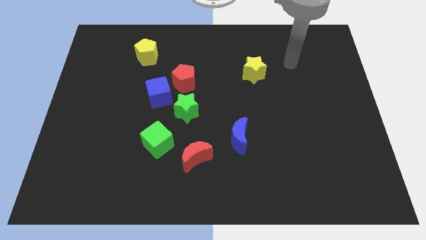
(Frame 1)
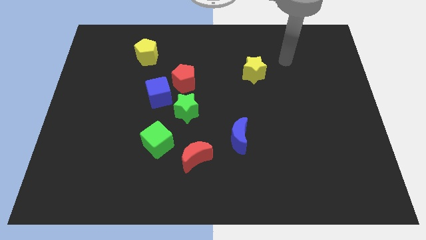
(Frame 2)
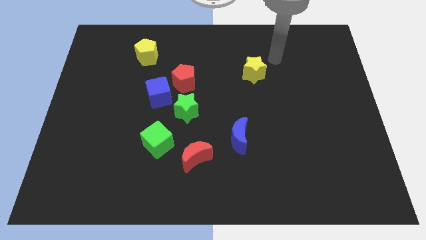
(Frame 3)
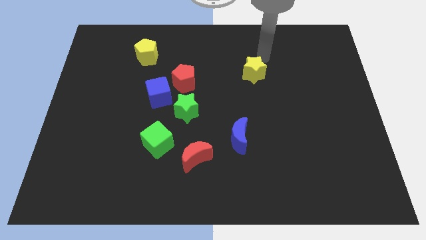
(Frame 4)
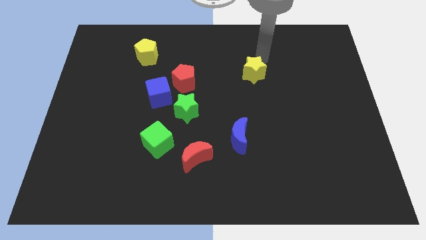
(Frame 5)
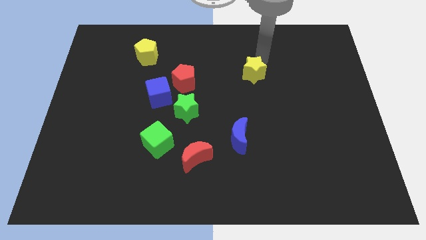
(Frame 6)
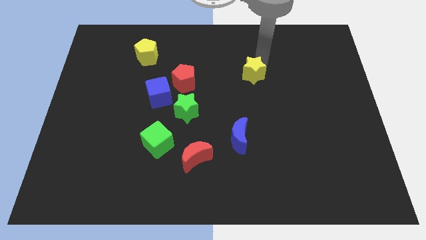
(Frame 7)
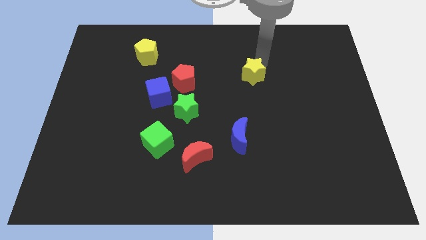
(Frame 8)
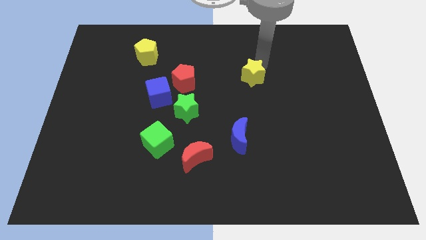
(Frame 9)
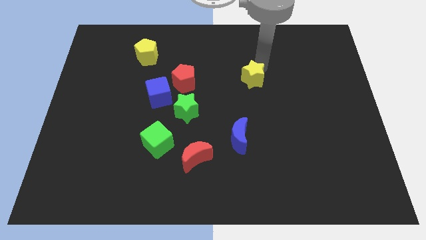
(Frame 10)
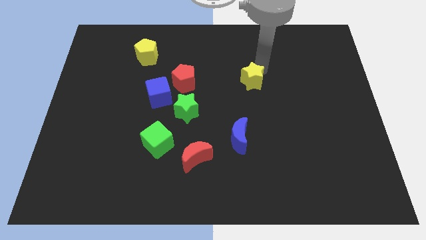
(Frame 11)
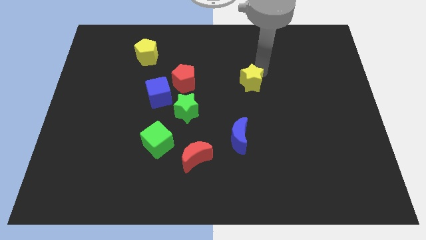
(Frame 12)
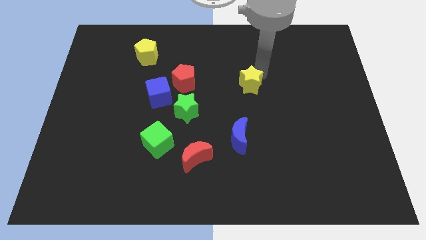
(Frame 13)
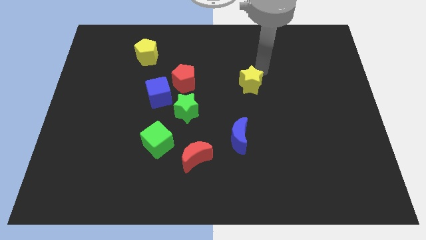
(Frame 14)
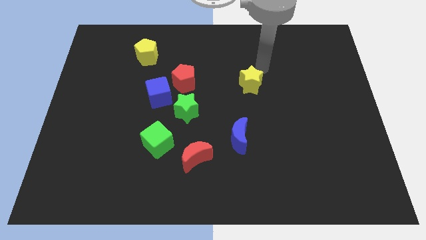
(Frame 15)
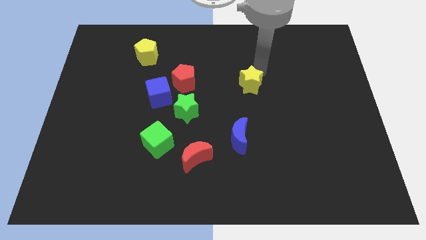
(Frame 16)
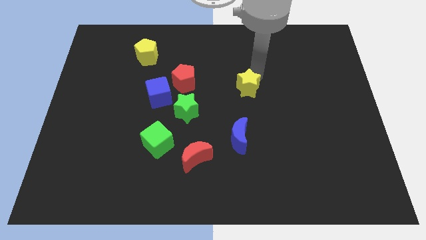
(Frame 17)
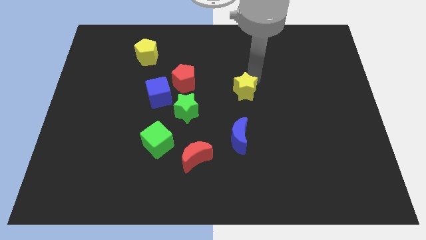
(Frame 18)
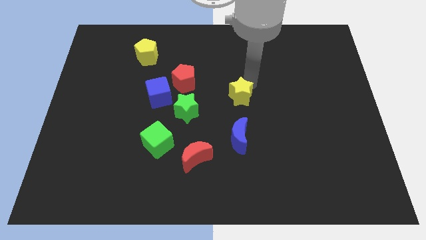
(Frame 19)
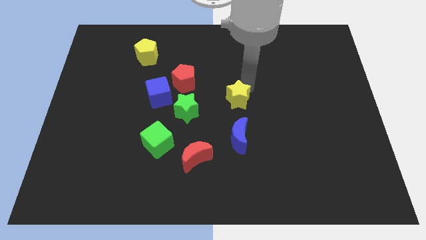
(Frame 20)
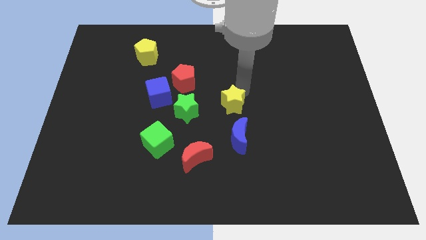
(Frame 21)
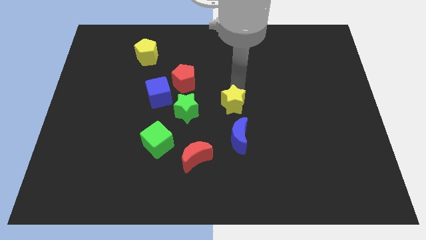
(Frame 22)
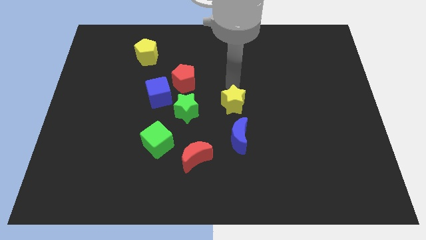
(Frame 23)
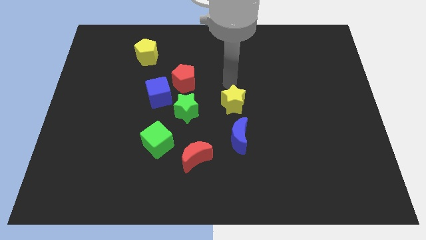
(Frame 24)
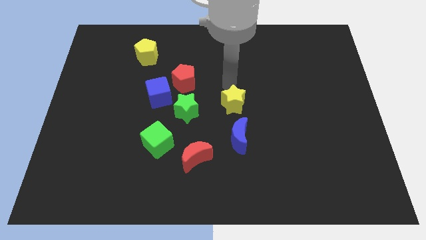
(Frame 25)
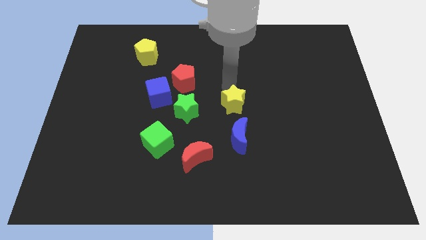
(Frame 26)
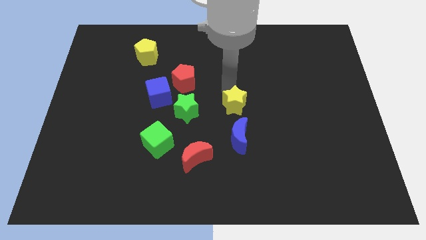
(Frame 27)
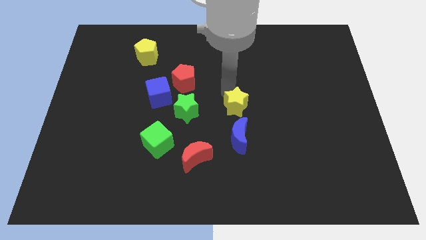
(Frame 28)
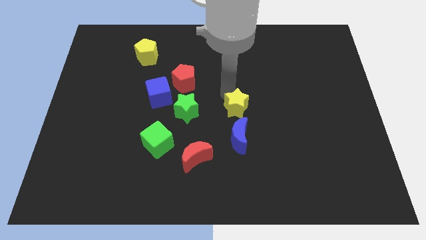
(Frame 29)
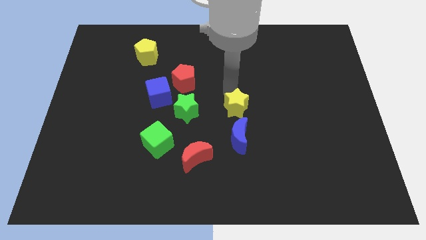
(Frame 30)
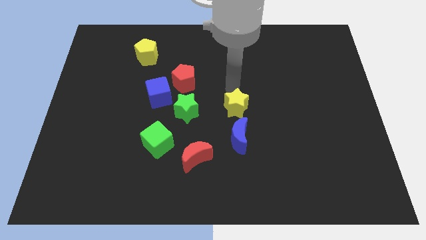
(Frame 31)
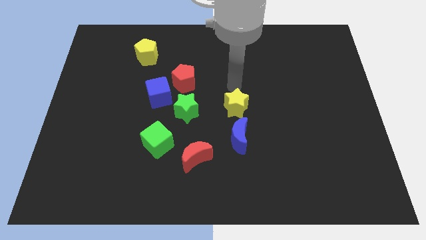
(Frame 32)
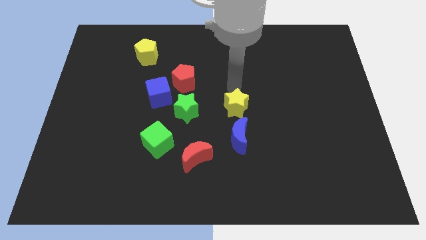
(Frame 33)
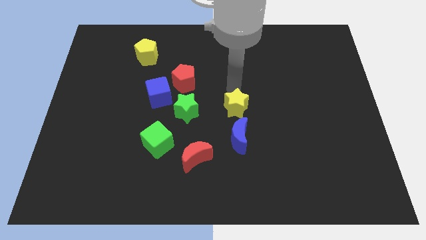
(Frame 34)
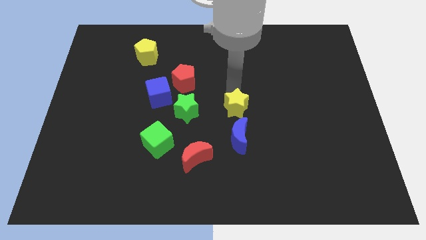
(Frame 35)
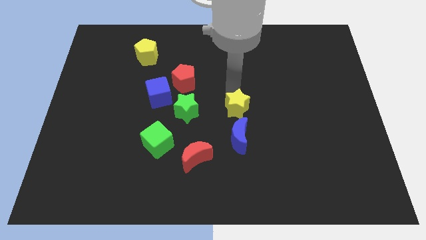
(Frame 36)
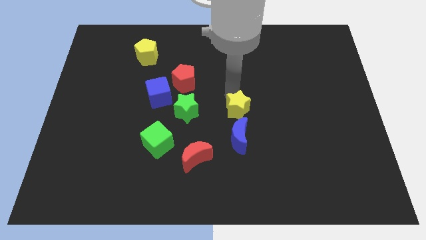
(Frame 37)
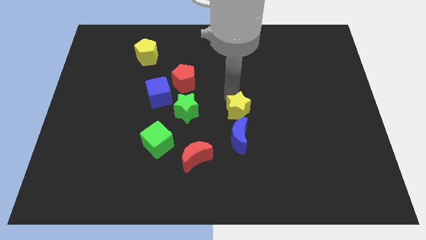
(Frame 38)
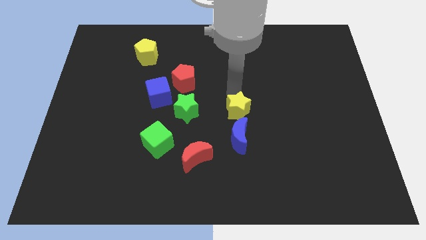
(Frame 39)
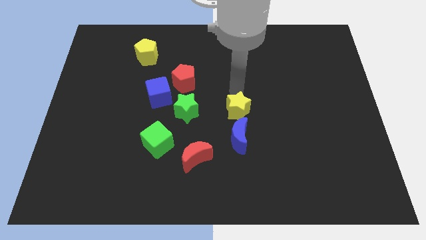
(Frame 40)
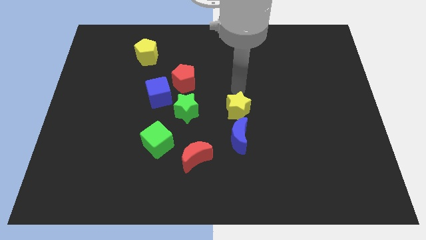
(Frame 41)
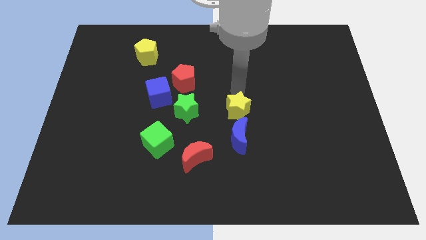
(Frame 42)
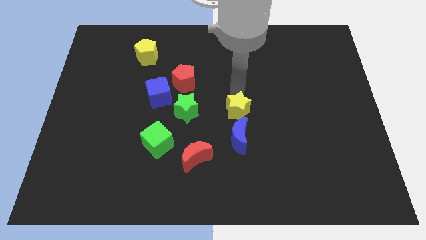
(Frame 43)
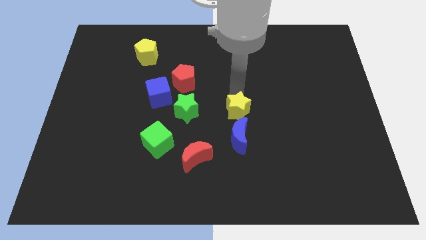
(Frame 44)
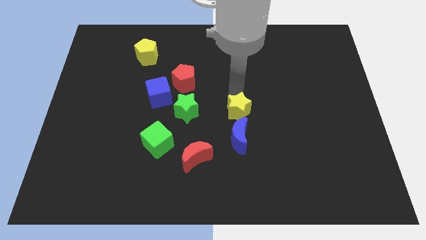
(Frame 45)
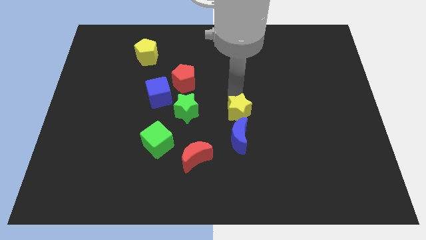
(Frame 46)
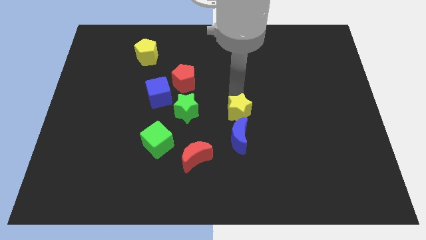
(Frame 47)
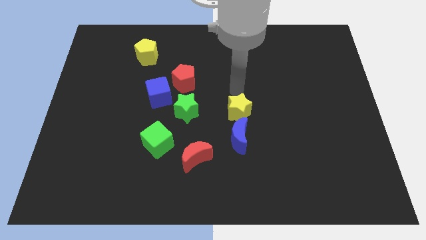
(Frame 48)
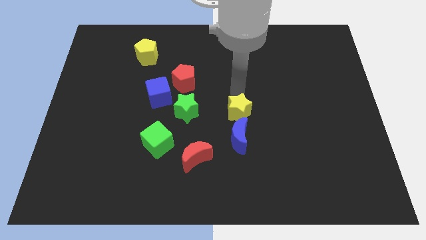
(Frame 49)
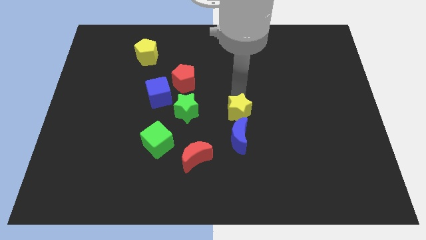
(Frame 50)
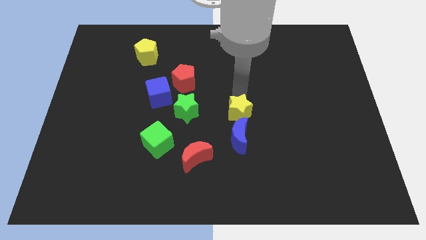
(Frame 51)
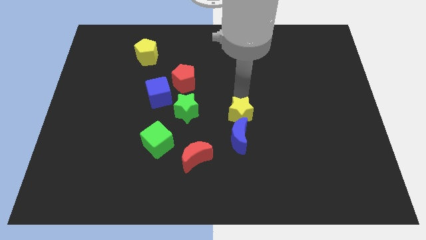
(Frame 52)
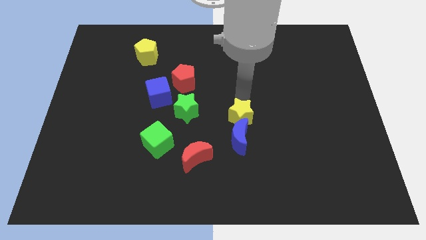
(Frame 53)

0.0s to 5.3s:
push the yellow star to the blue moon

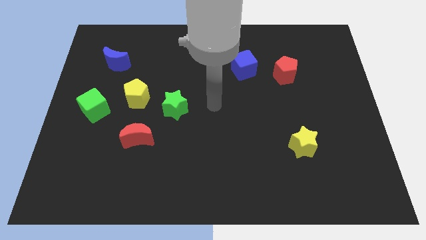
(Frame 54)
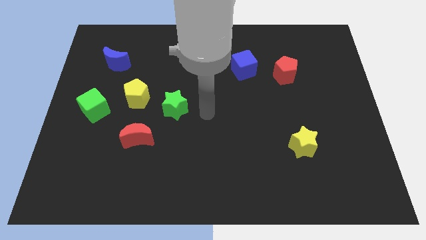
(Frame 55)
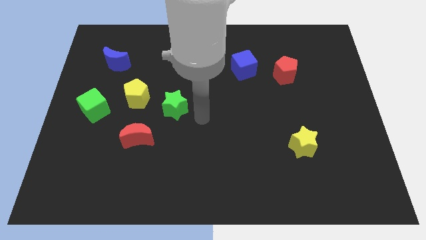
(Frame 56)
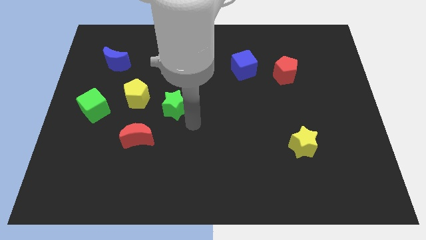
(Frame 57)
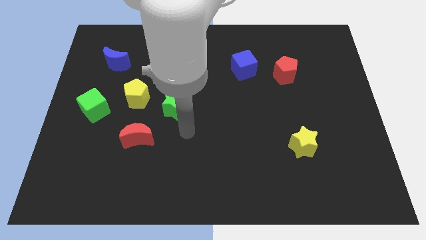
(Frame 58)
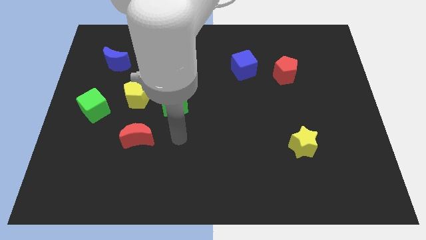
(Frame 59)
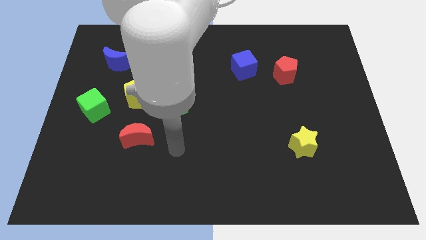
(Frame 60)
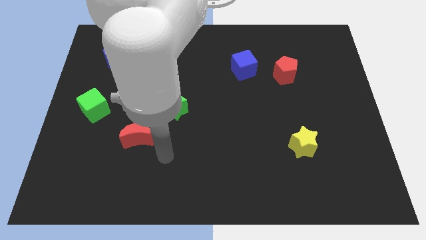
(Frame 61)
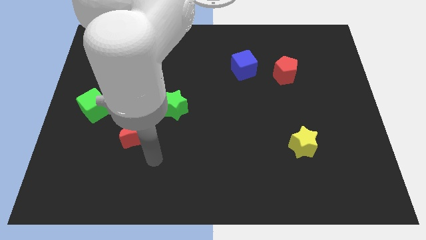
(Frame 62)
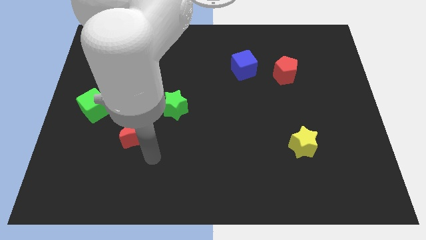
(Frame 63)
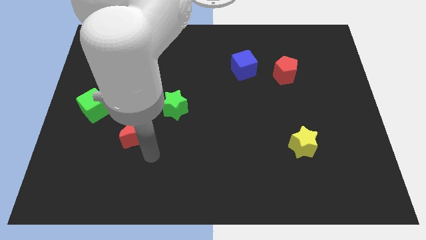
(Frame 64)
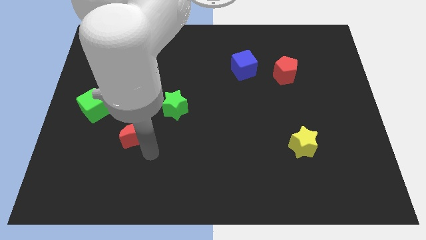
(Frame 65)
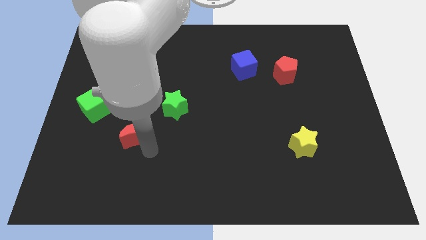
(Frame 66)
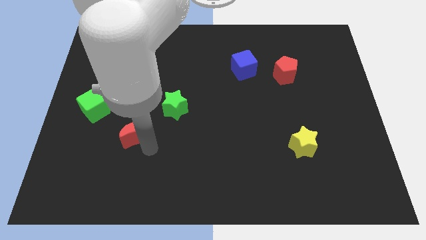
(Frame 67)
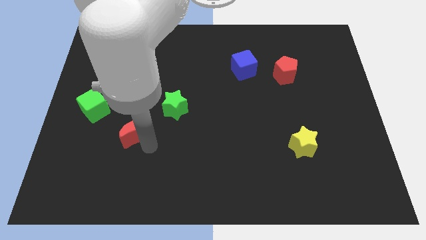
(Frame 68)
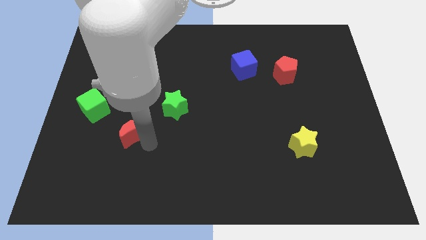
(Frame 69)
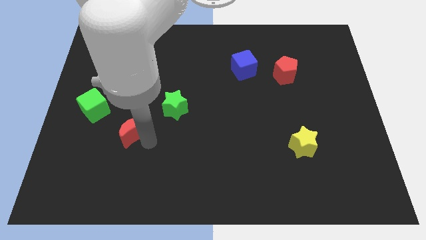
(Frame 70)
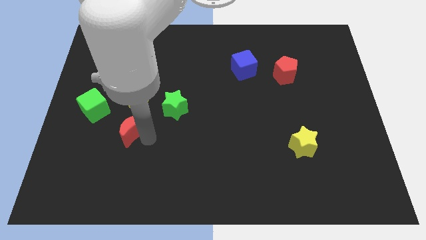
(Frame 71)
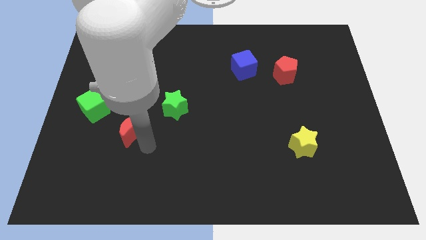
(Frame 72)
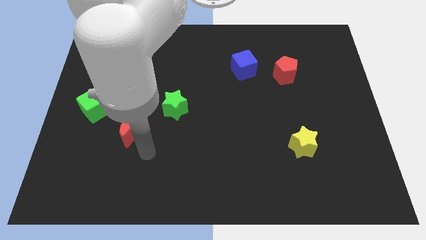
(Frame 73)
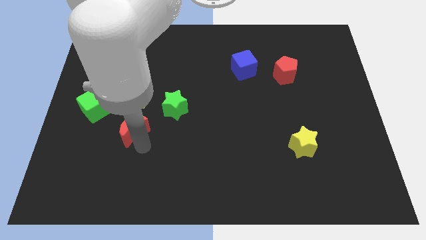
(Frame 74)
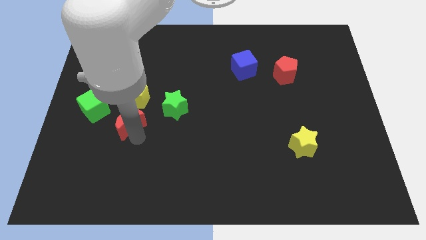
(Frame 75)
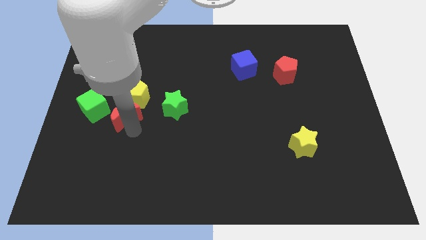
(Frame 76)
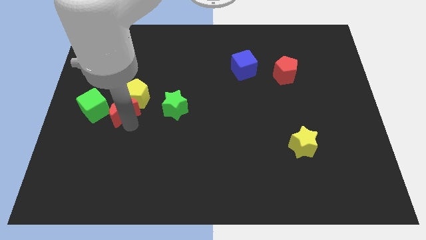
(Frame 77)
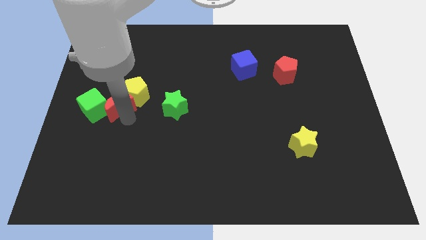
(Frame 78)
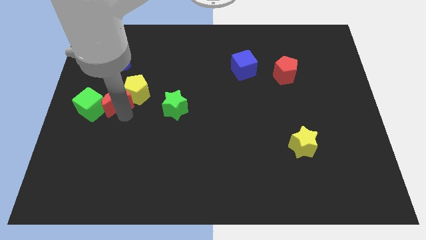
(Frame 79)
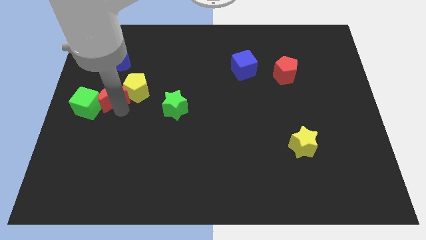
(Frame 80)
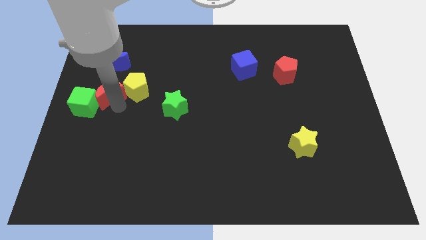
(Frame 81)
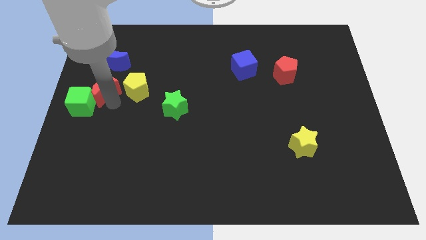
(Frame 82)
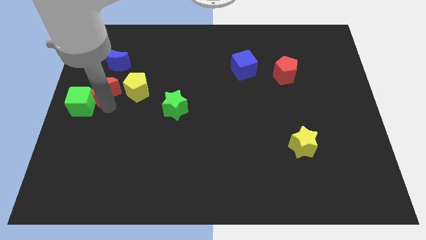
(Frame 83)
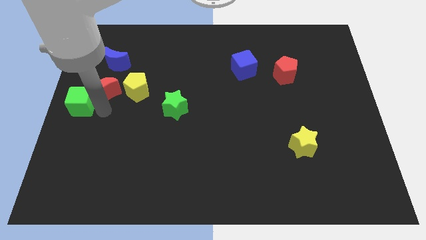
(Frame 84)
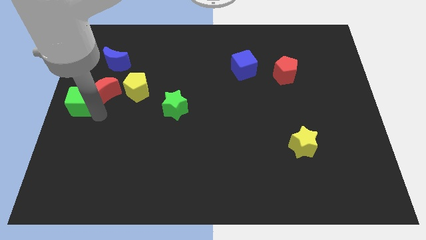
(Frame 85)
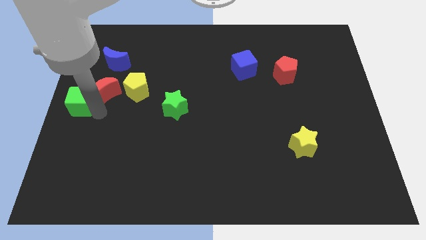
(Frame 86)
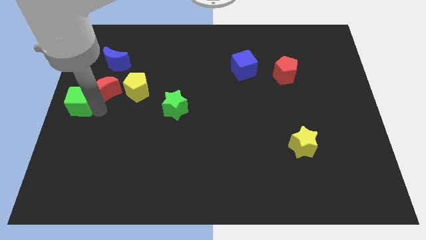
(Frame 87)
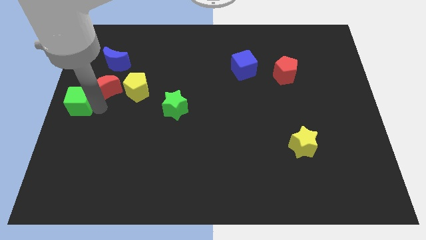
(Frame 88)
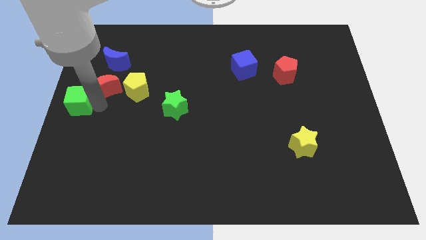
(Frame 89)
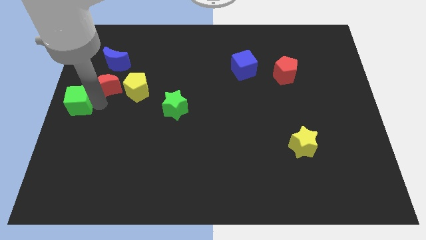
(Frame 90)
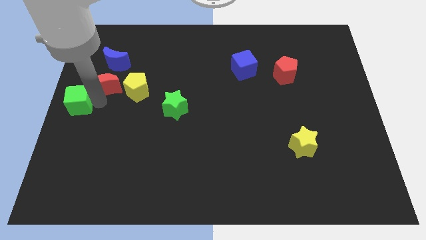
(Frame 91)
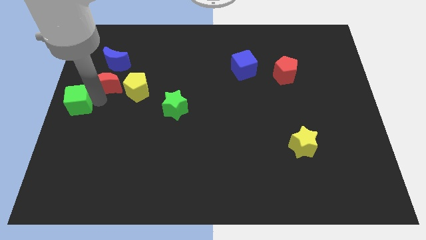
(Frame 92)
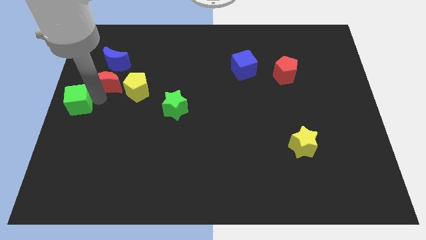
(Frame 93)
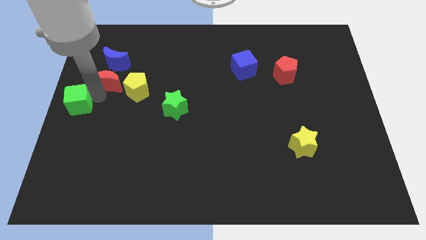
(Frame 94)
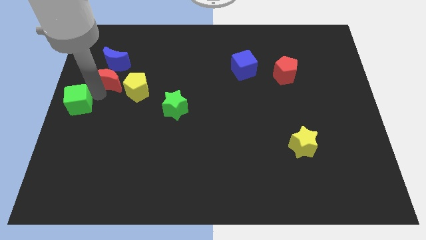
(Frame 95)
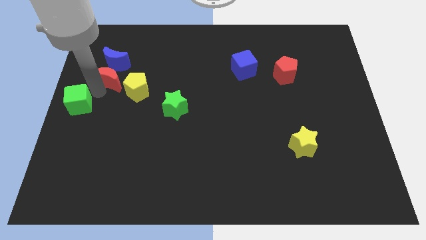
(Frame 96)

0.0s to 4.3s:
put the red moon next to the blue moon
